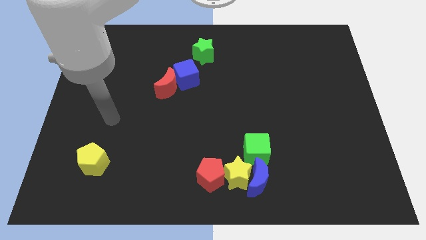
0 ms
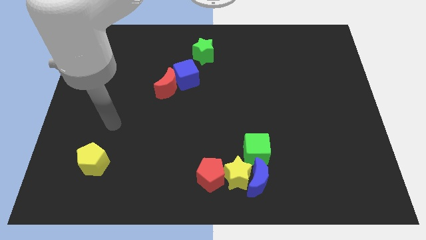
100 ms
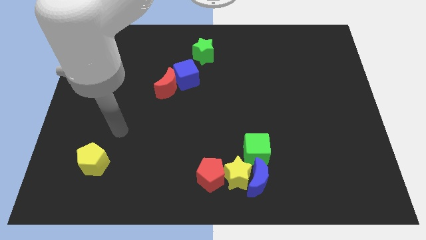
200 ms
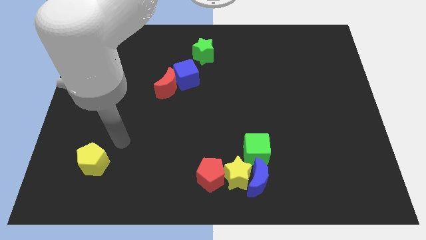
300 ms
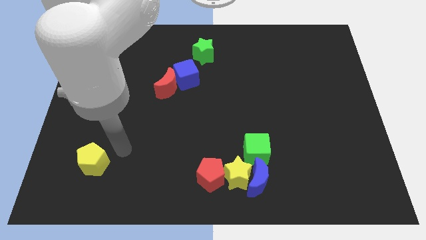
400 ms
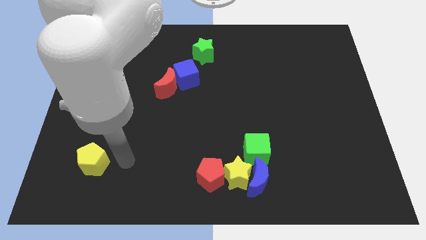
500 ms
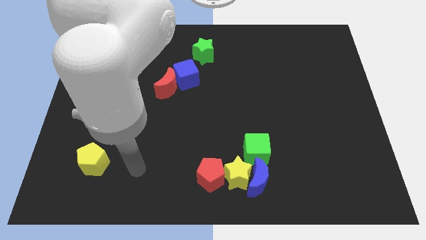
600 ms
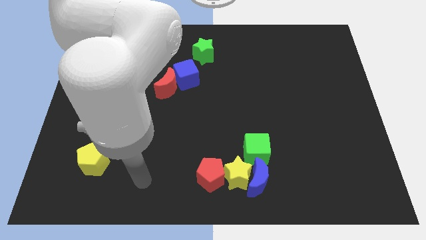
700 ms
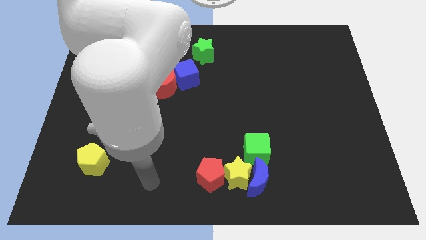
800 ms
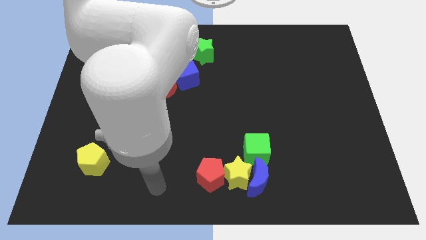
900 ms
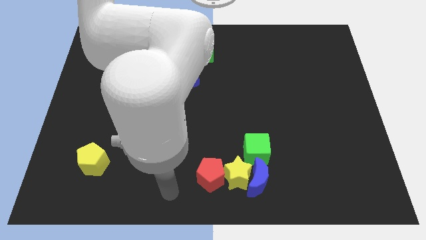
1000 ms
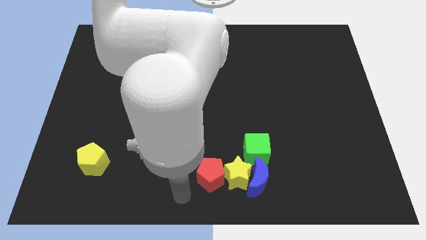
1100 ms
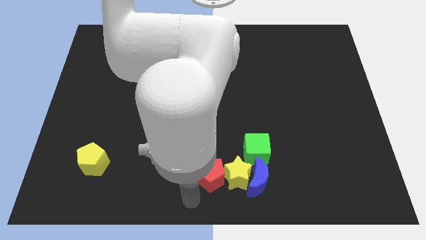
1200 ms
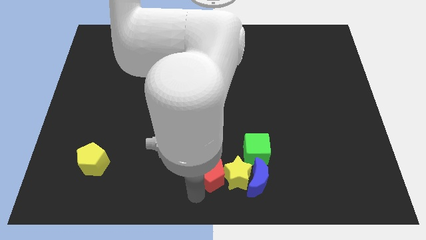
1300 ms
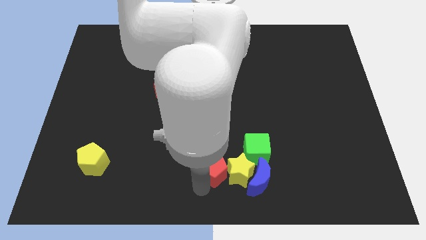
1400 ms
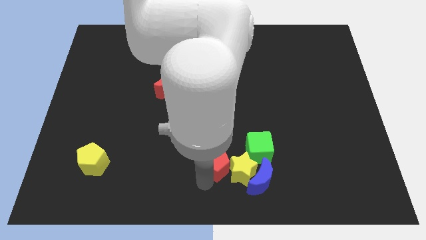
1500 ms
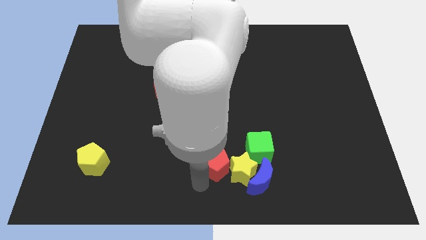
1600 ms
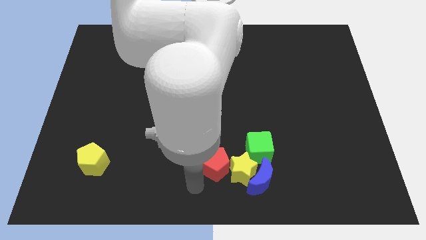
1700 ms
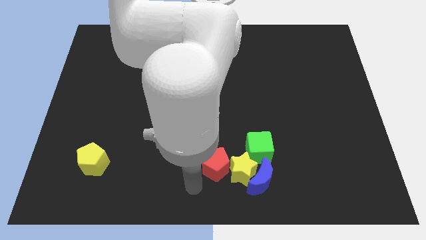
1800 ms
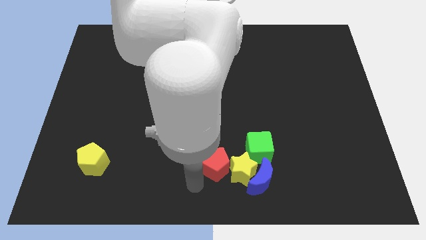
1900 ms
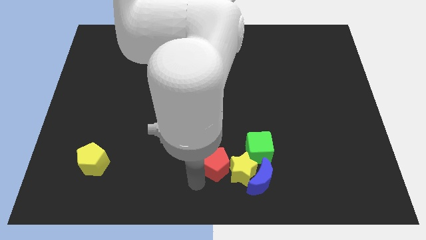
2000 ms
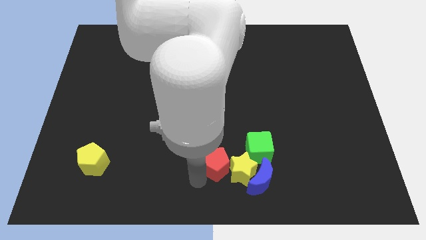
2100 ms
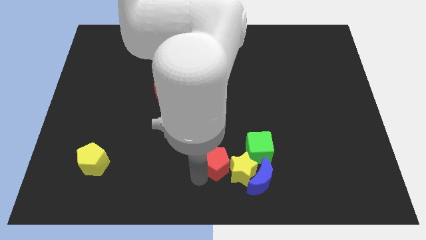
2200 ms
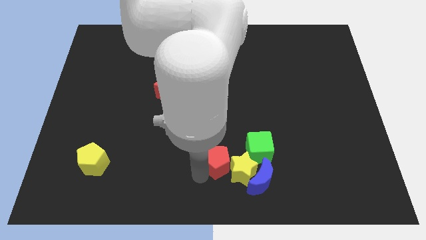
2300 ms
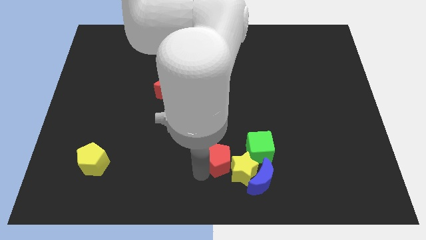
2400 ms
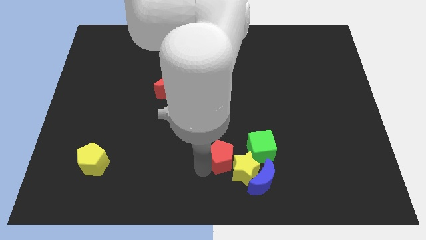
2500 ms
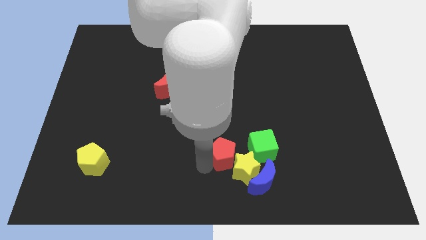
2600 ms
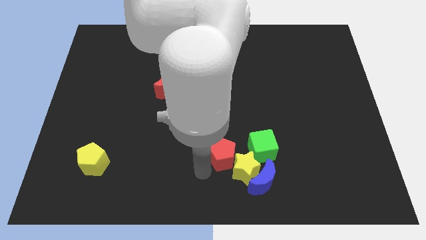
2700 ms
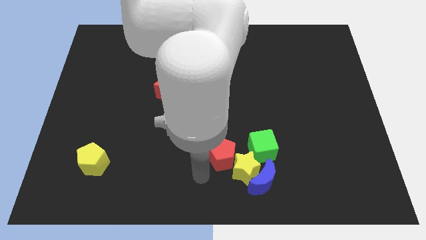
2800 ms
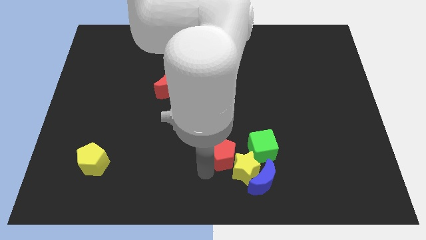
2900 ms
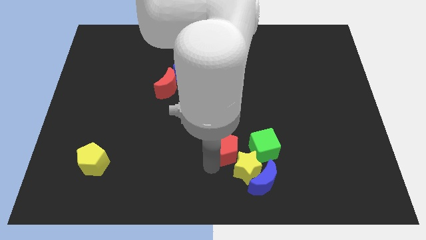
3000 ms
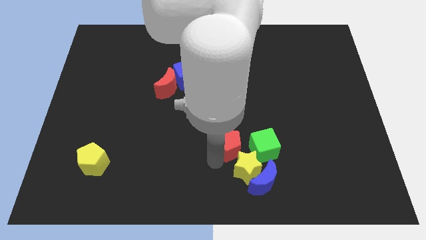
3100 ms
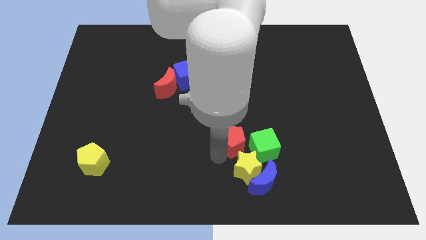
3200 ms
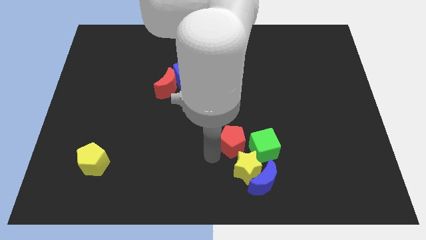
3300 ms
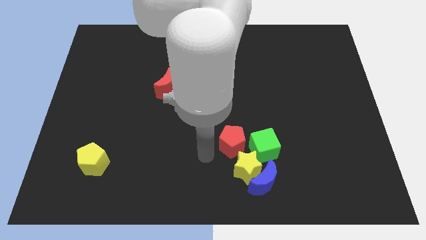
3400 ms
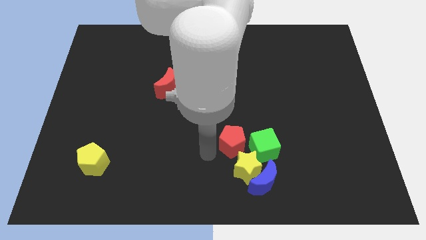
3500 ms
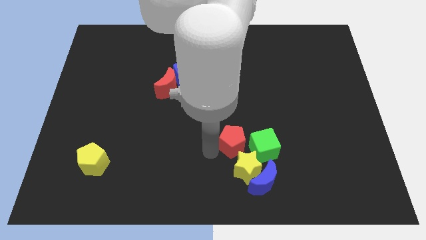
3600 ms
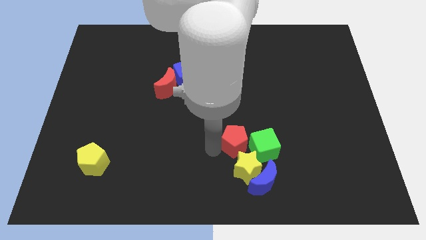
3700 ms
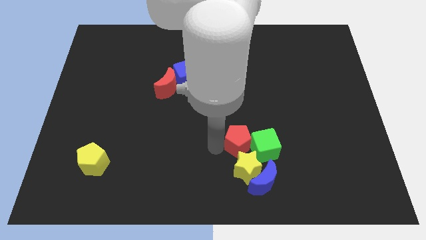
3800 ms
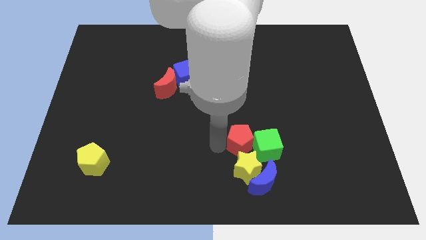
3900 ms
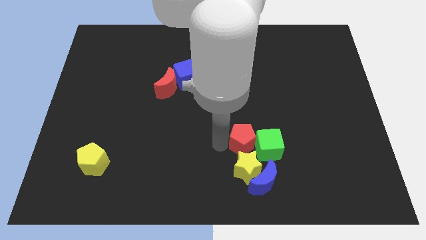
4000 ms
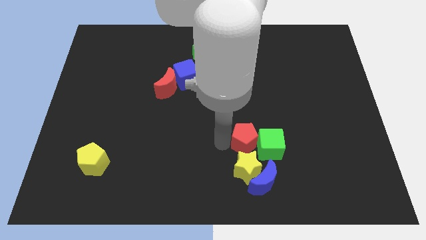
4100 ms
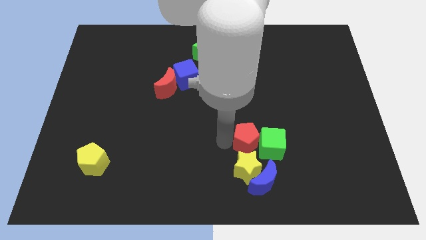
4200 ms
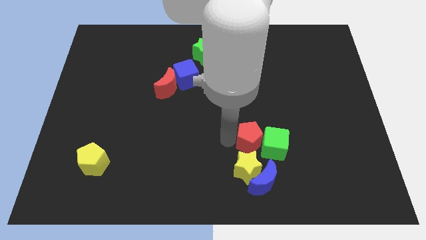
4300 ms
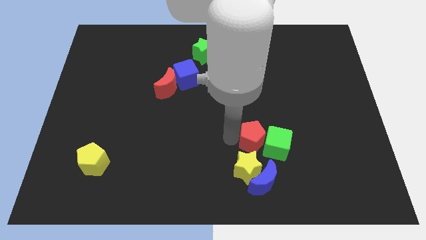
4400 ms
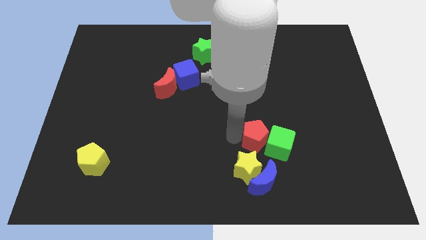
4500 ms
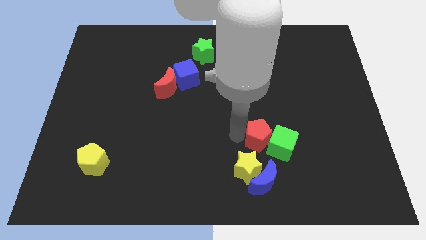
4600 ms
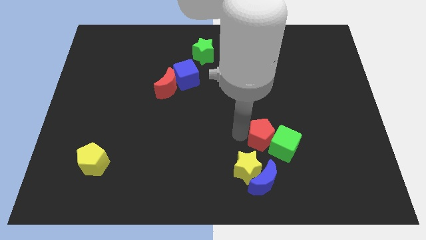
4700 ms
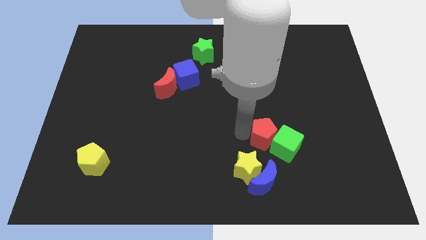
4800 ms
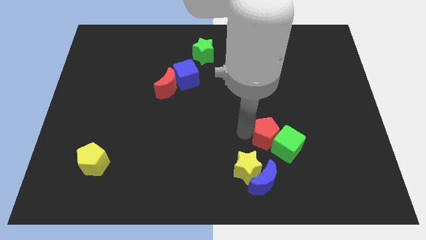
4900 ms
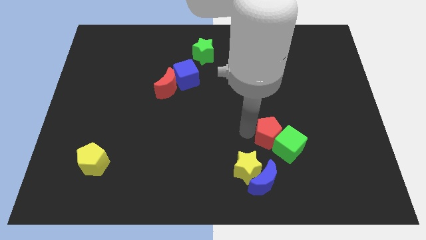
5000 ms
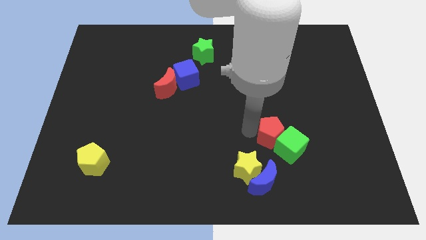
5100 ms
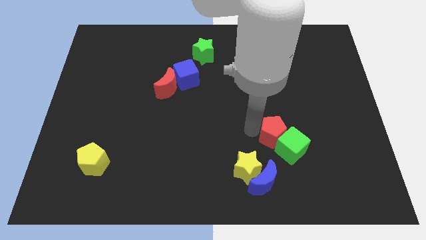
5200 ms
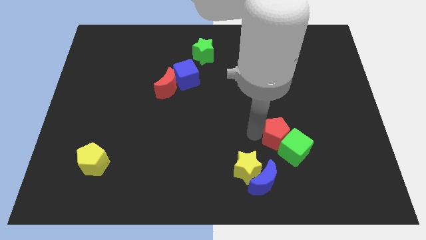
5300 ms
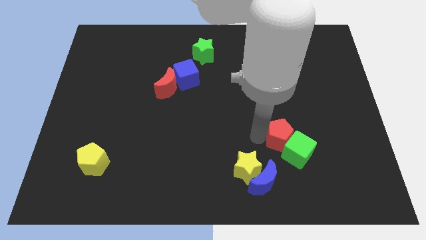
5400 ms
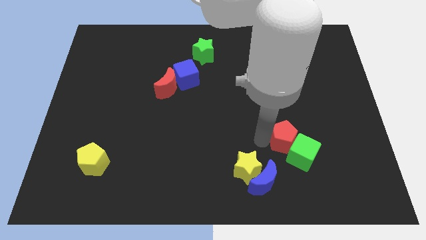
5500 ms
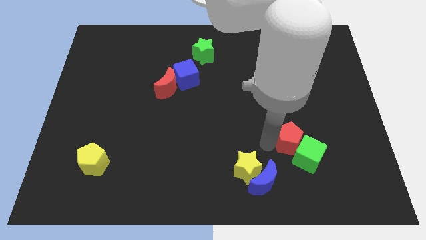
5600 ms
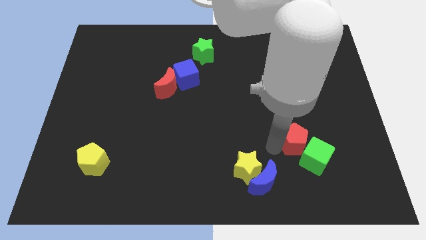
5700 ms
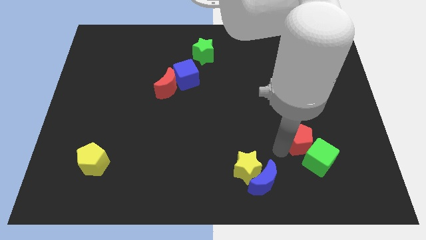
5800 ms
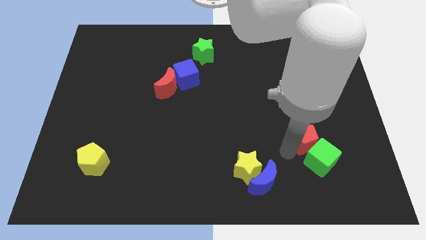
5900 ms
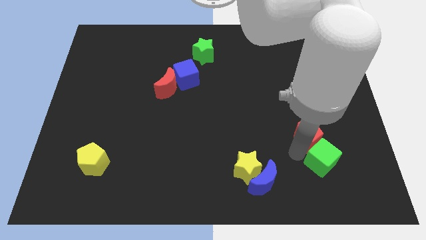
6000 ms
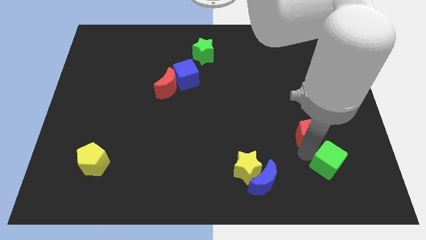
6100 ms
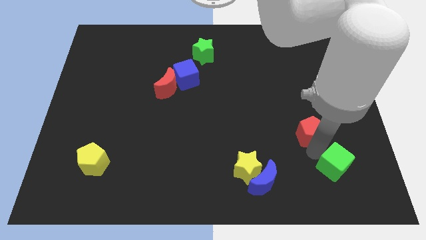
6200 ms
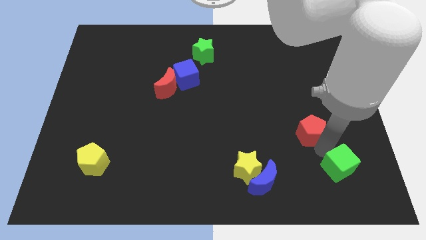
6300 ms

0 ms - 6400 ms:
slide the red pentagon diagonally upwards and to the right

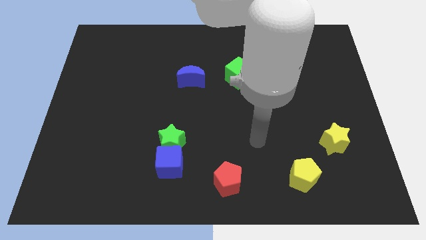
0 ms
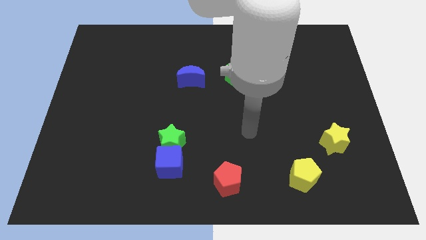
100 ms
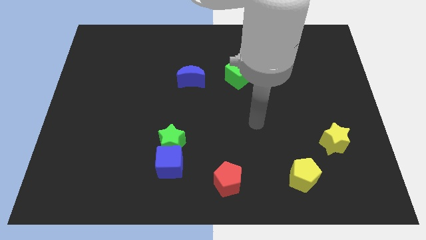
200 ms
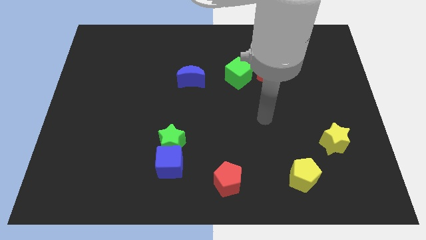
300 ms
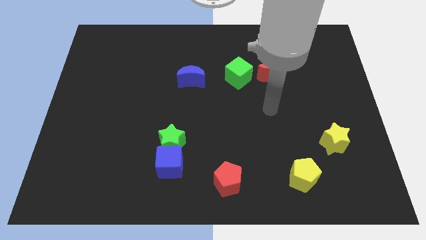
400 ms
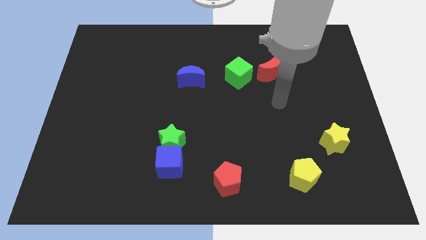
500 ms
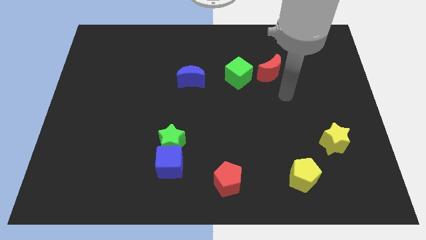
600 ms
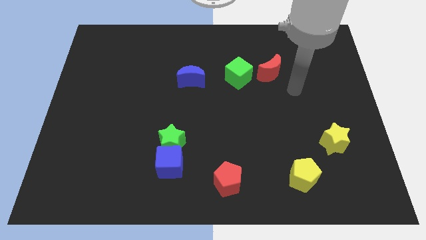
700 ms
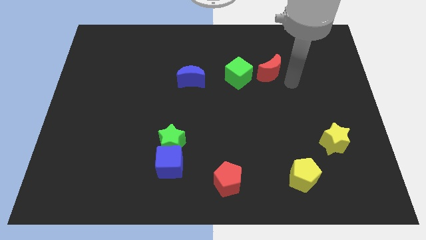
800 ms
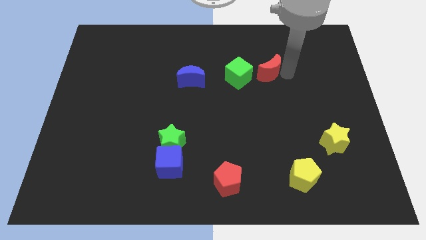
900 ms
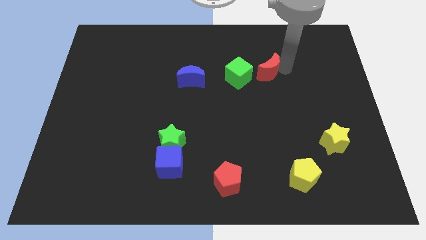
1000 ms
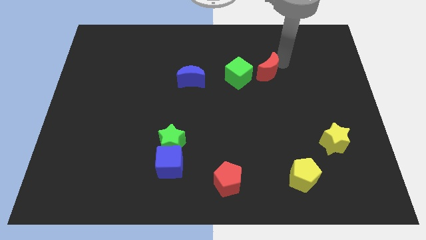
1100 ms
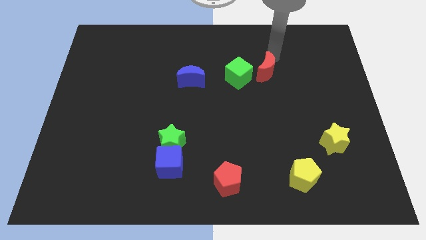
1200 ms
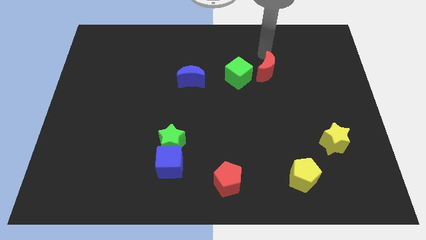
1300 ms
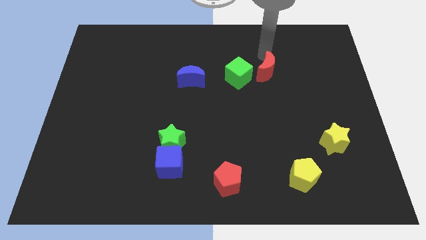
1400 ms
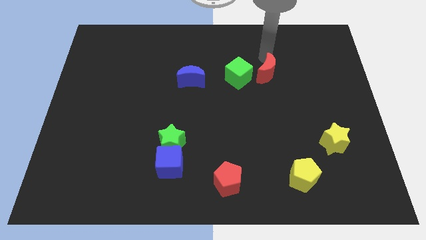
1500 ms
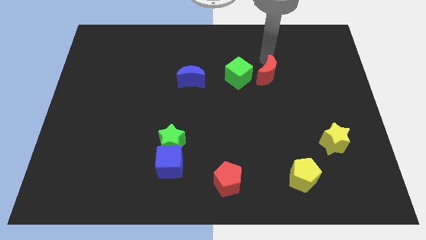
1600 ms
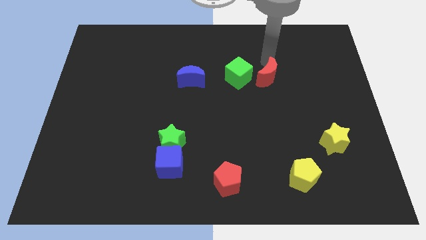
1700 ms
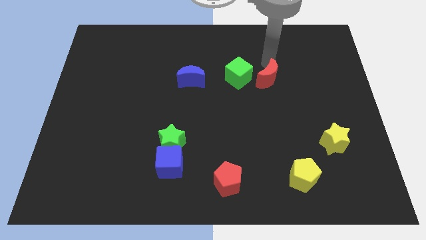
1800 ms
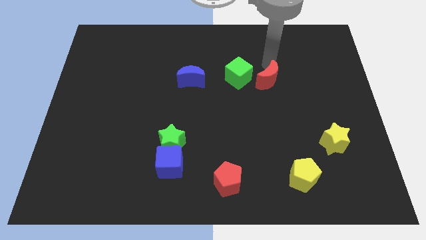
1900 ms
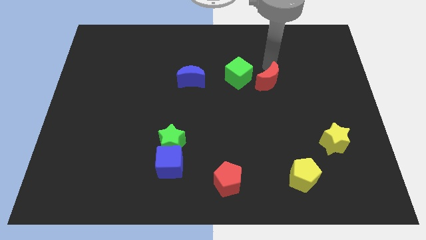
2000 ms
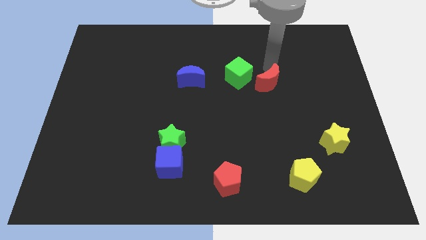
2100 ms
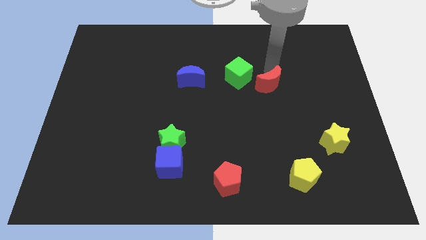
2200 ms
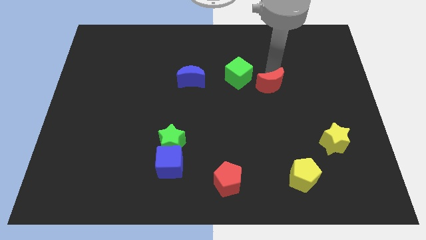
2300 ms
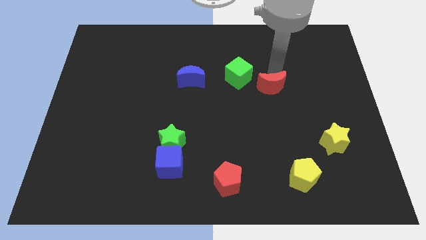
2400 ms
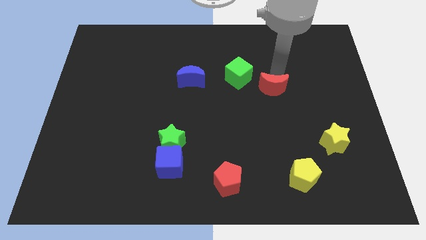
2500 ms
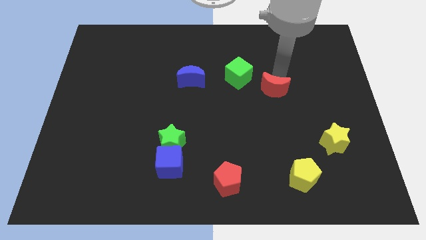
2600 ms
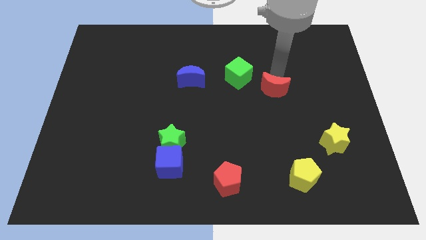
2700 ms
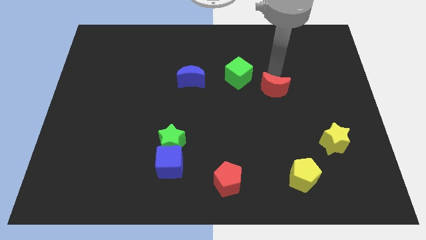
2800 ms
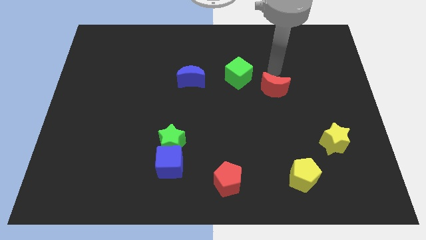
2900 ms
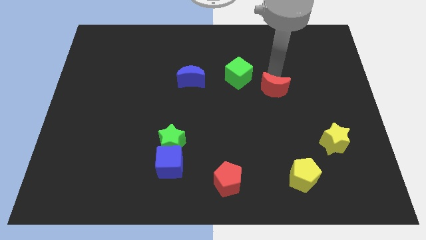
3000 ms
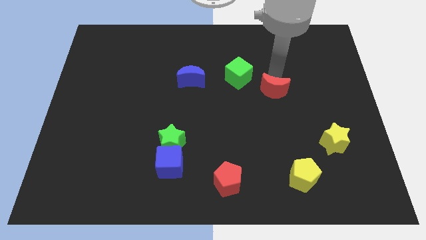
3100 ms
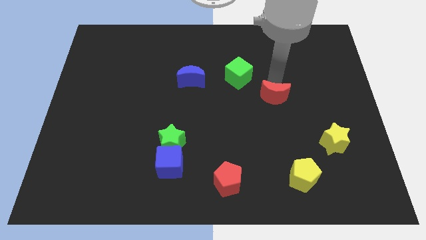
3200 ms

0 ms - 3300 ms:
slightly slide the red moon downwards
